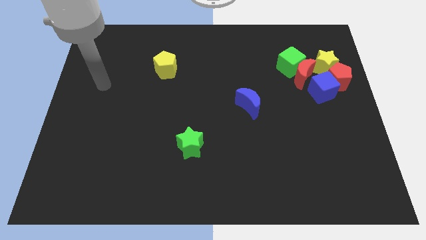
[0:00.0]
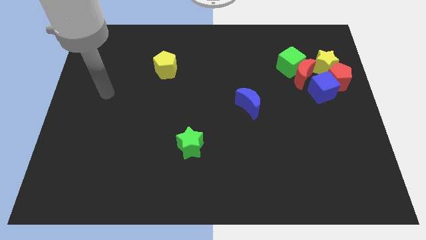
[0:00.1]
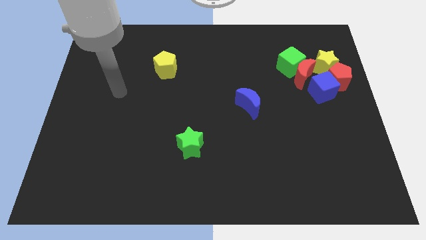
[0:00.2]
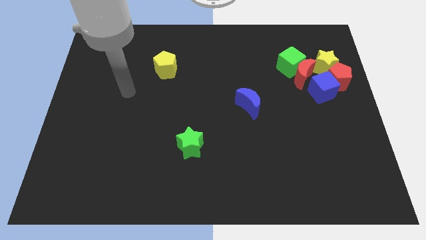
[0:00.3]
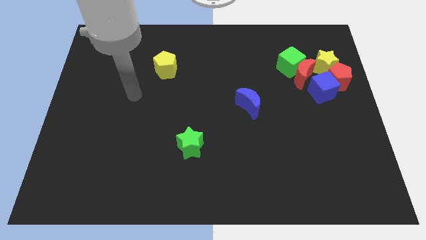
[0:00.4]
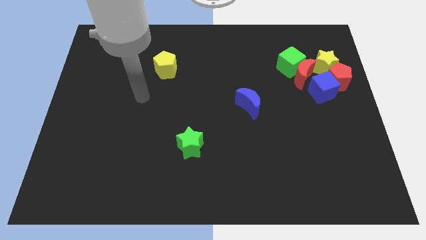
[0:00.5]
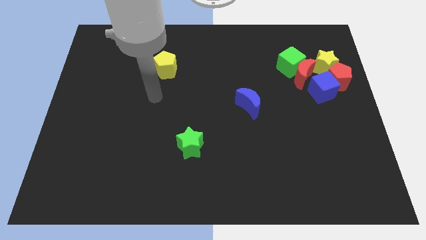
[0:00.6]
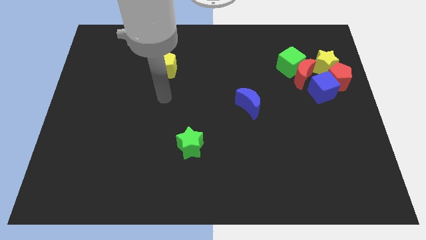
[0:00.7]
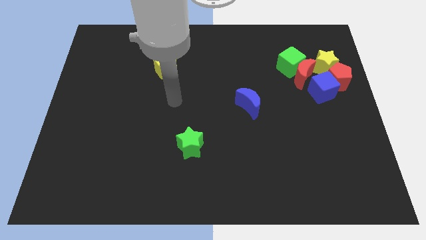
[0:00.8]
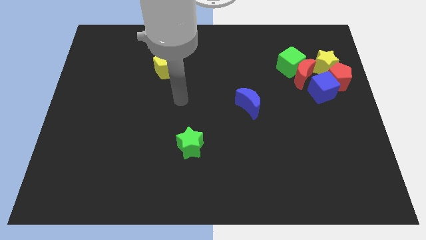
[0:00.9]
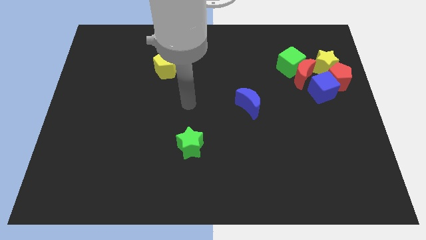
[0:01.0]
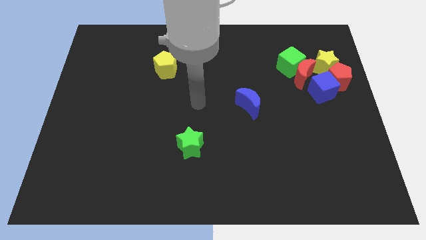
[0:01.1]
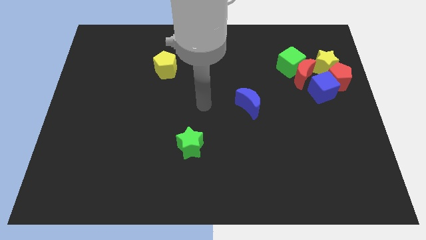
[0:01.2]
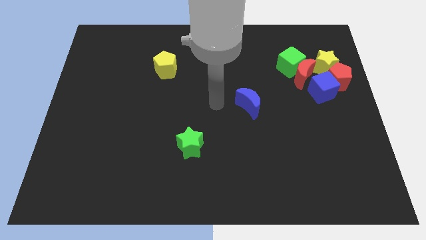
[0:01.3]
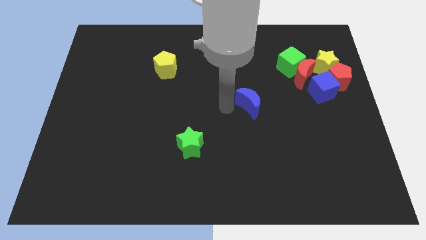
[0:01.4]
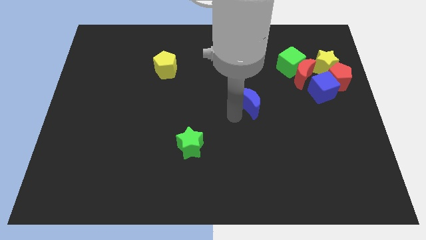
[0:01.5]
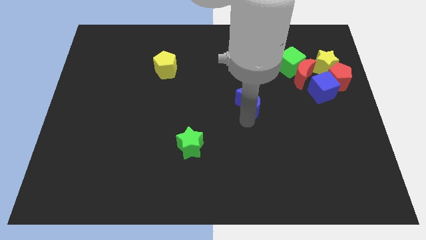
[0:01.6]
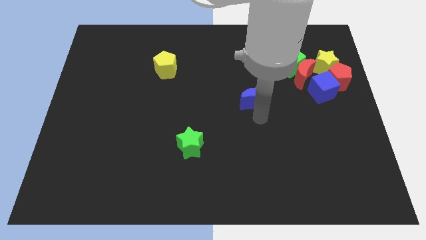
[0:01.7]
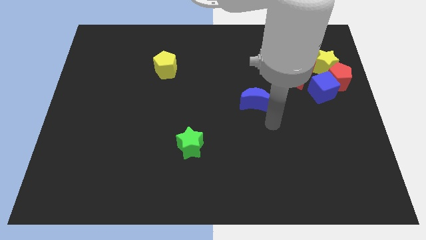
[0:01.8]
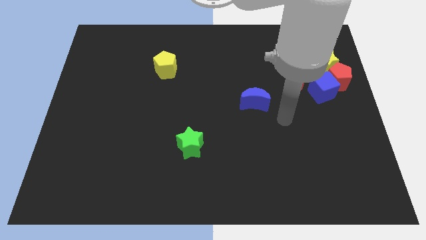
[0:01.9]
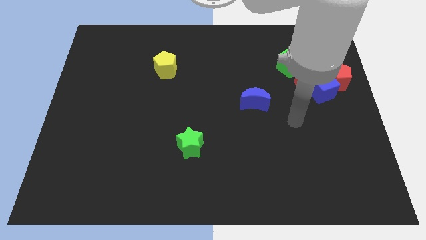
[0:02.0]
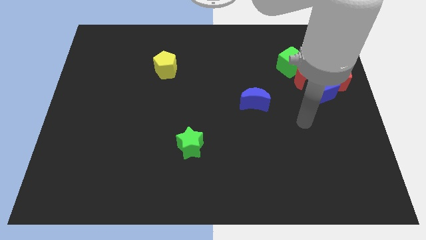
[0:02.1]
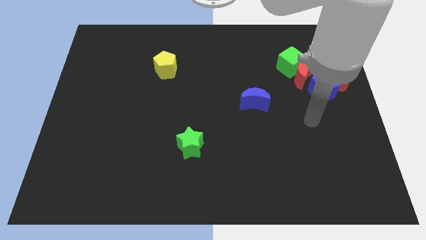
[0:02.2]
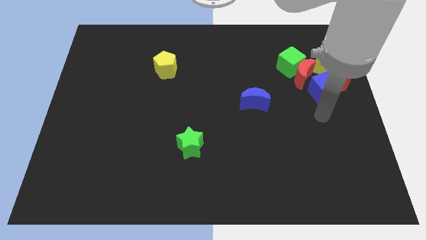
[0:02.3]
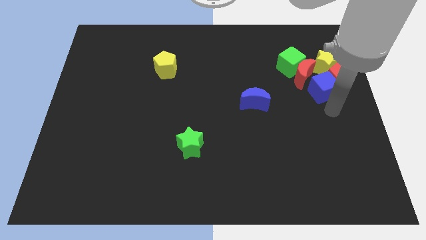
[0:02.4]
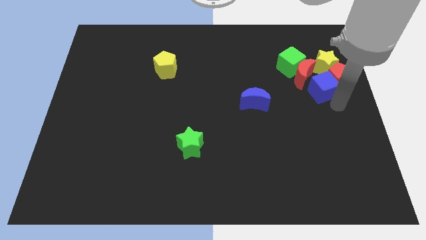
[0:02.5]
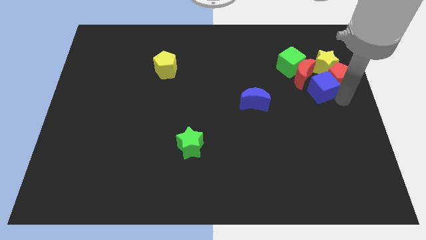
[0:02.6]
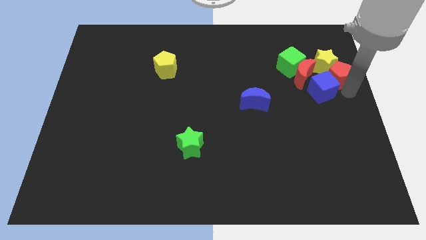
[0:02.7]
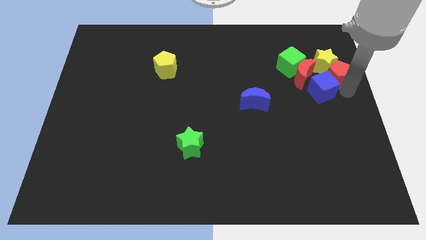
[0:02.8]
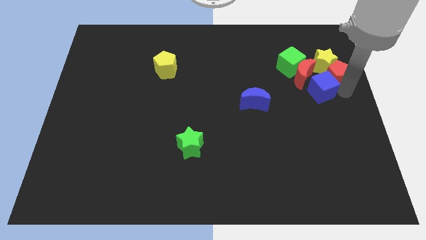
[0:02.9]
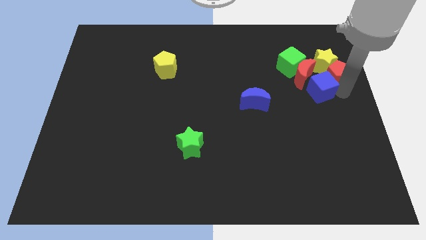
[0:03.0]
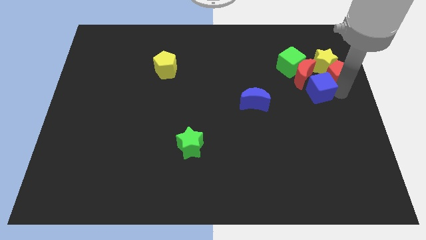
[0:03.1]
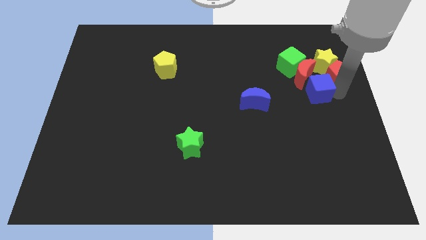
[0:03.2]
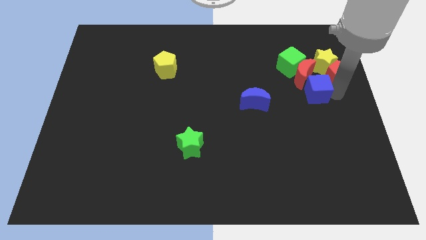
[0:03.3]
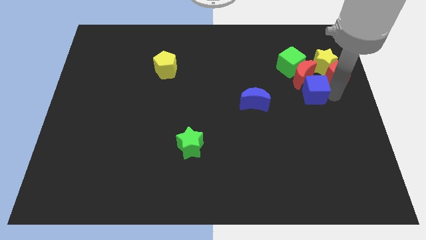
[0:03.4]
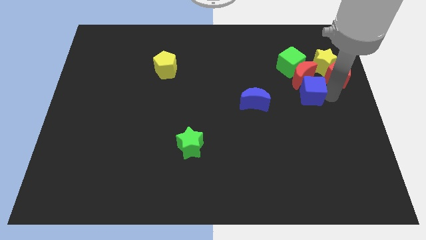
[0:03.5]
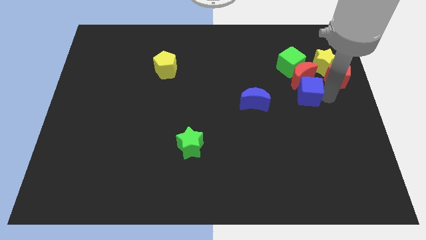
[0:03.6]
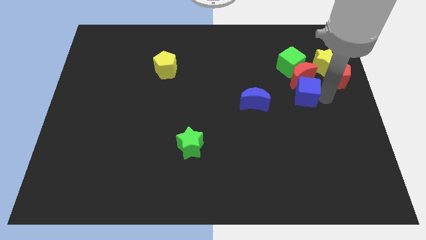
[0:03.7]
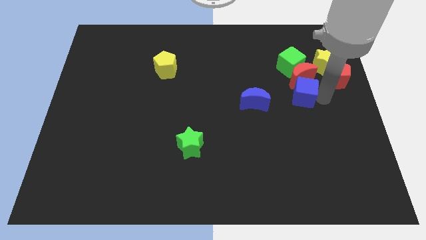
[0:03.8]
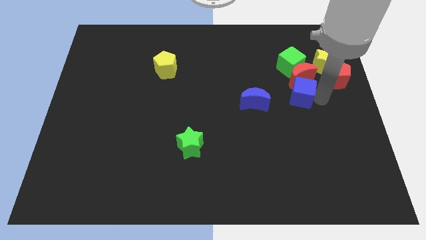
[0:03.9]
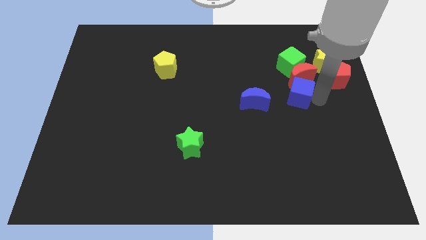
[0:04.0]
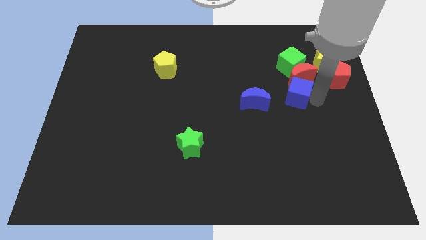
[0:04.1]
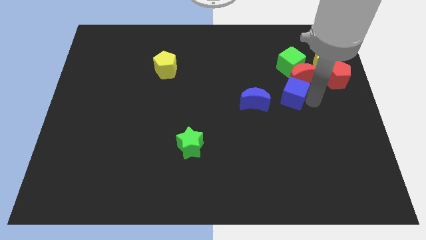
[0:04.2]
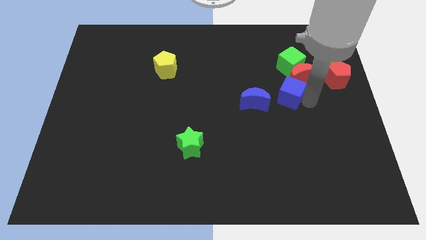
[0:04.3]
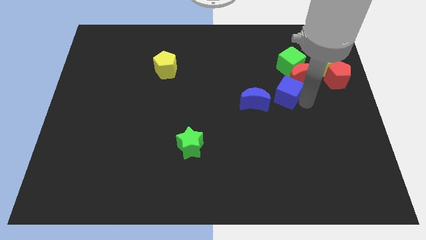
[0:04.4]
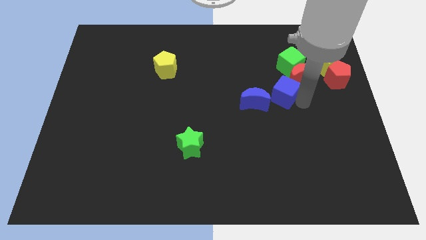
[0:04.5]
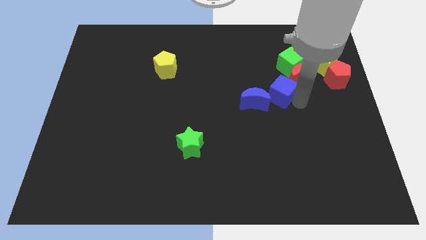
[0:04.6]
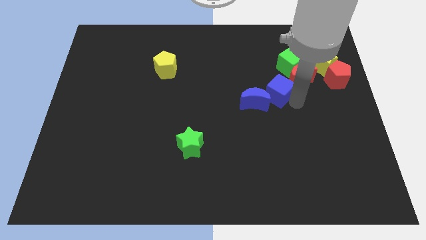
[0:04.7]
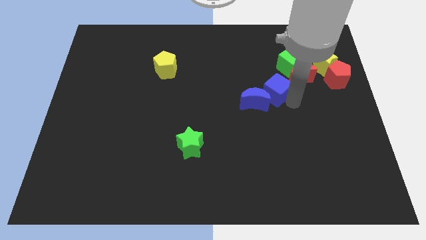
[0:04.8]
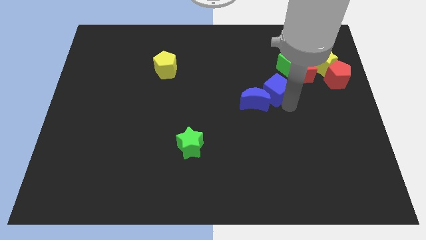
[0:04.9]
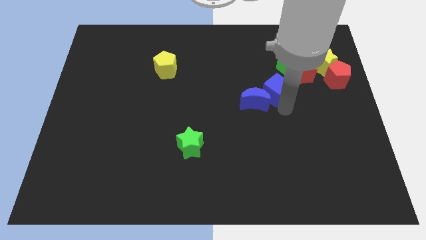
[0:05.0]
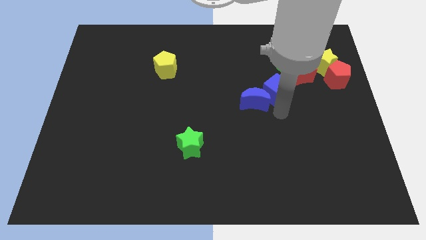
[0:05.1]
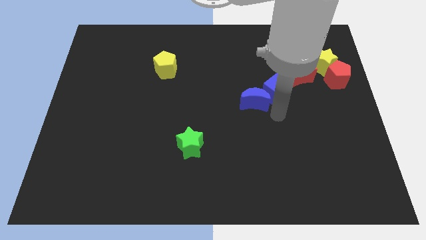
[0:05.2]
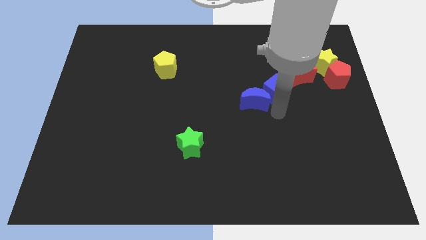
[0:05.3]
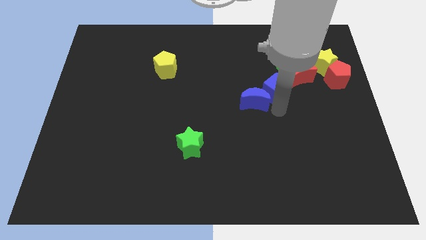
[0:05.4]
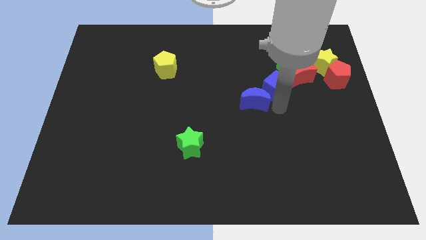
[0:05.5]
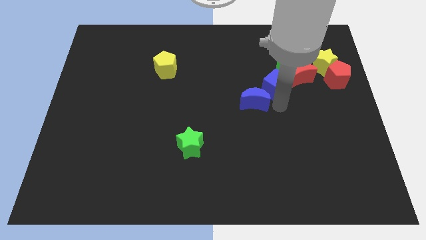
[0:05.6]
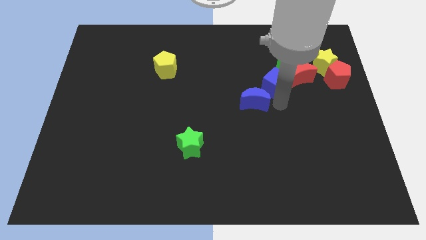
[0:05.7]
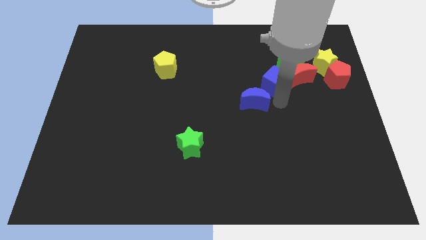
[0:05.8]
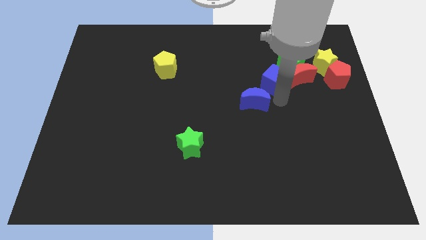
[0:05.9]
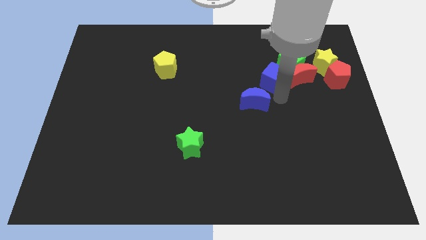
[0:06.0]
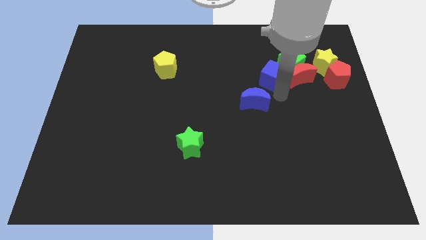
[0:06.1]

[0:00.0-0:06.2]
slide the blue cube to the left of the yellow star

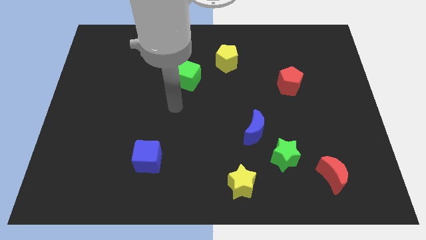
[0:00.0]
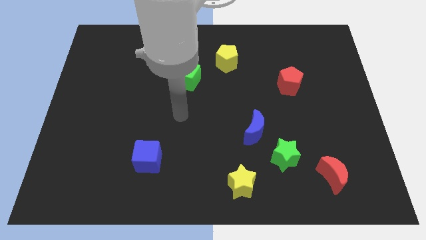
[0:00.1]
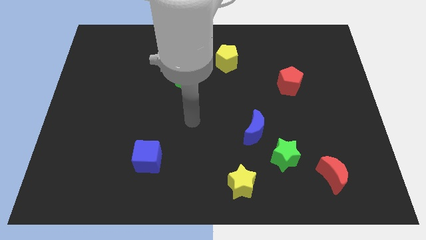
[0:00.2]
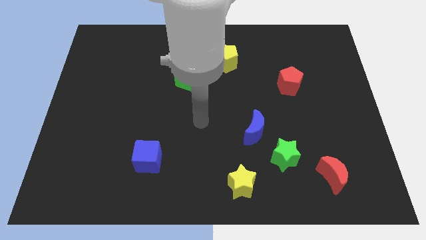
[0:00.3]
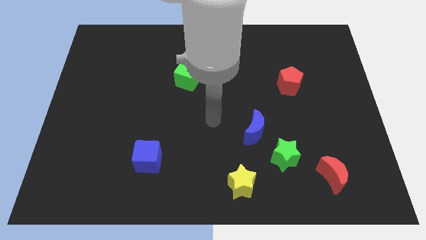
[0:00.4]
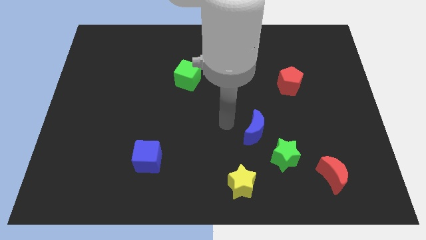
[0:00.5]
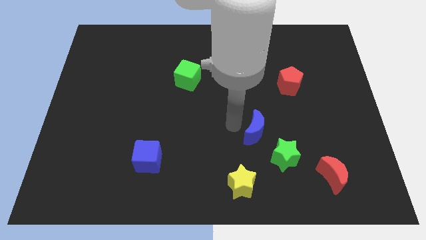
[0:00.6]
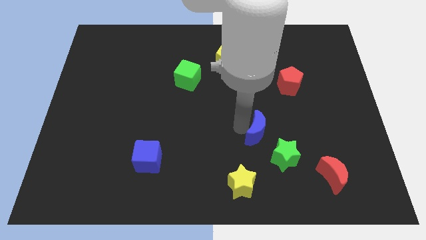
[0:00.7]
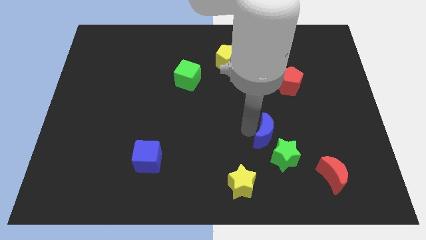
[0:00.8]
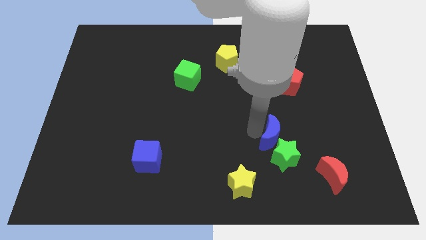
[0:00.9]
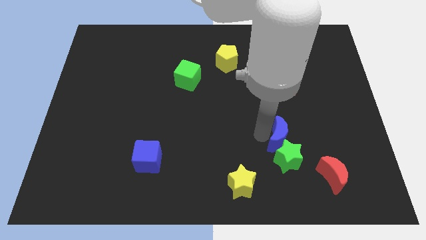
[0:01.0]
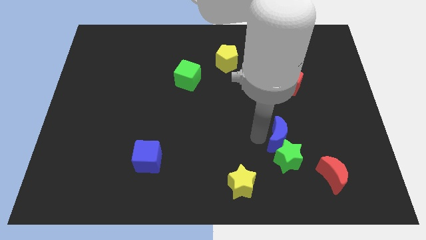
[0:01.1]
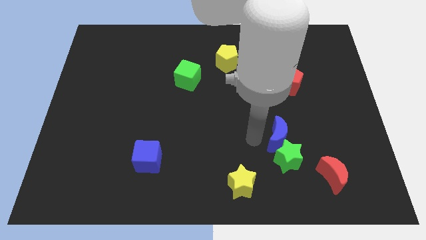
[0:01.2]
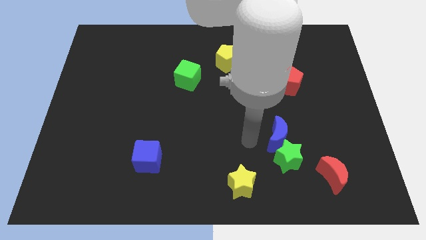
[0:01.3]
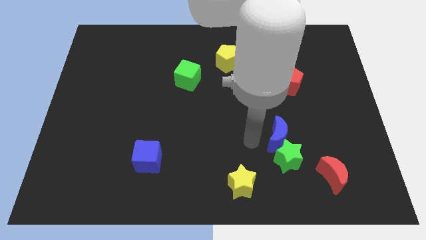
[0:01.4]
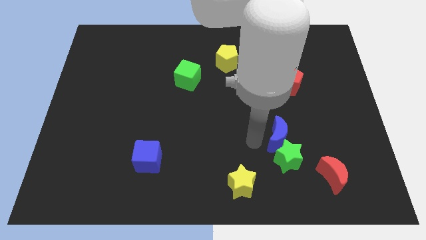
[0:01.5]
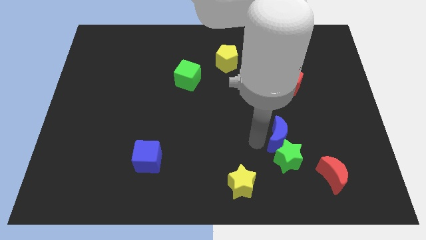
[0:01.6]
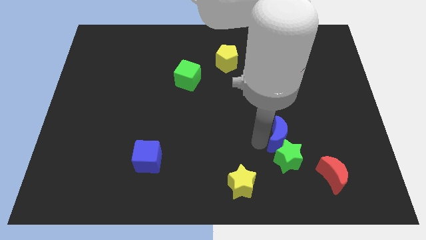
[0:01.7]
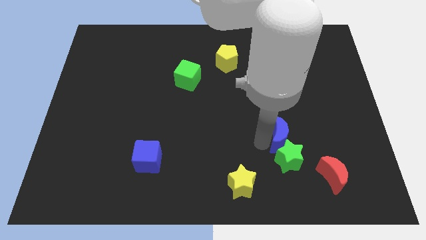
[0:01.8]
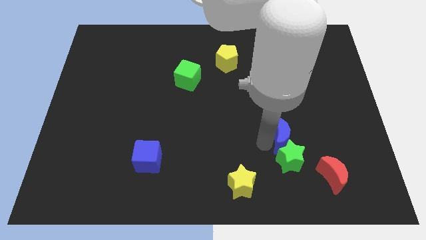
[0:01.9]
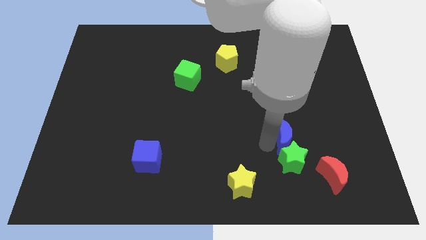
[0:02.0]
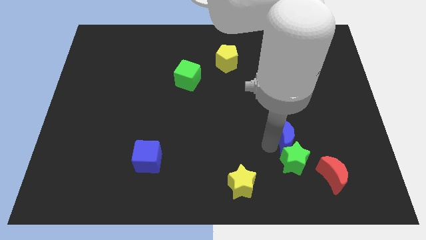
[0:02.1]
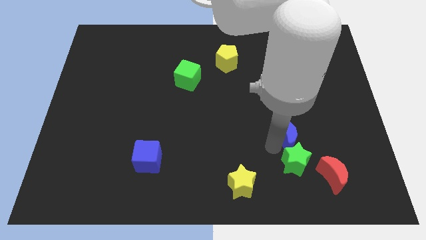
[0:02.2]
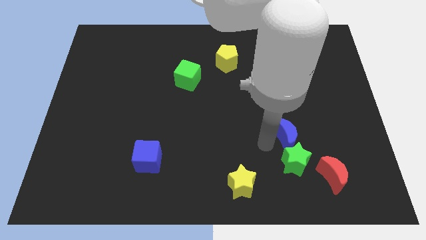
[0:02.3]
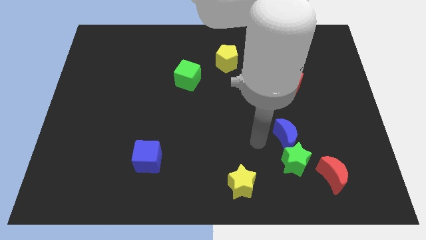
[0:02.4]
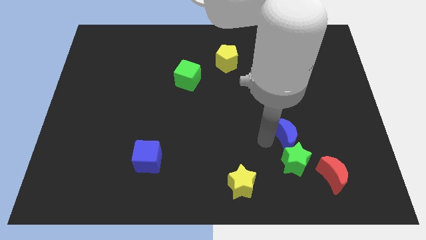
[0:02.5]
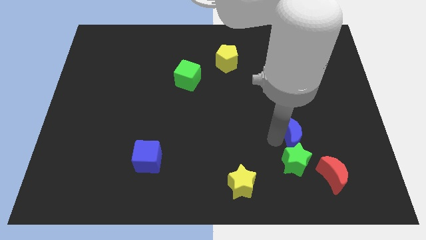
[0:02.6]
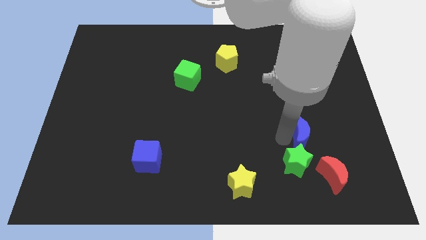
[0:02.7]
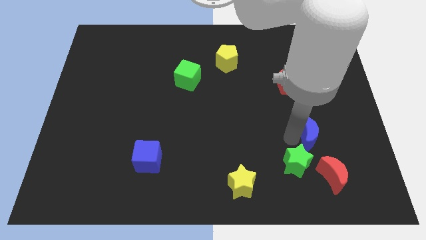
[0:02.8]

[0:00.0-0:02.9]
push the blue moon to the top of the red moon
